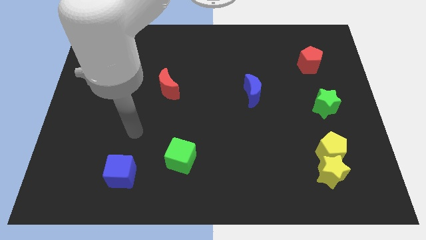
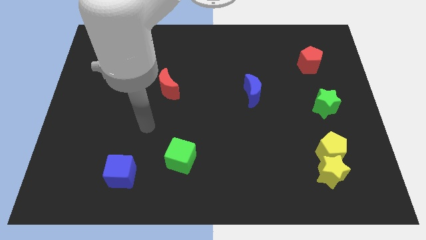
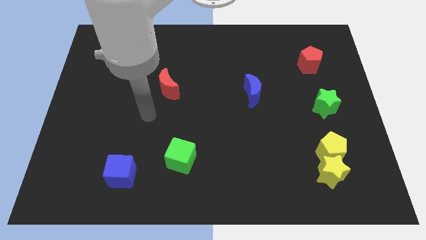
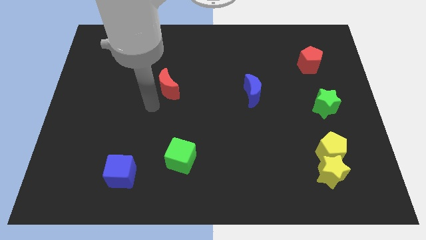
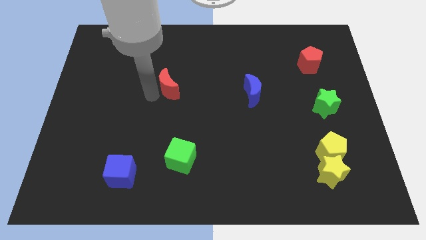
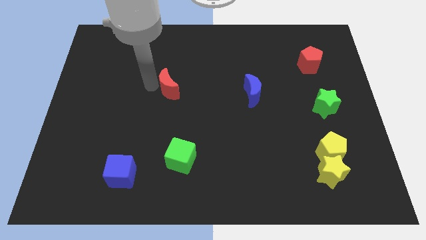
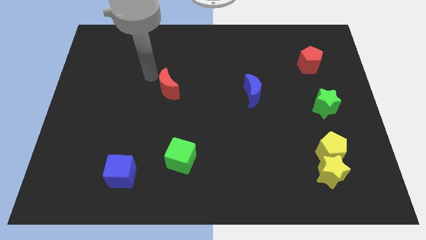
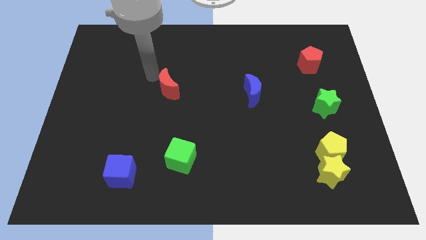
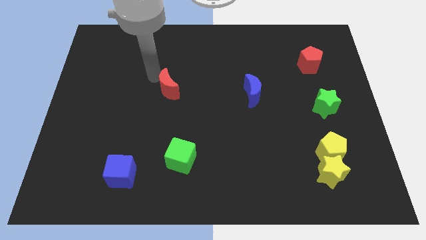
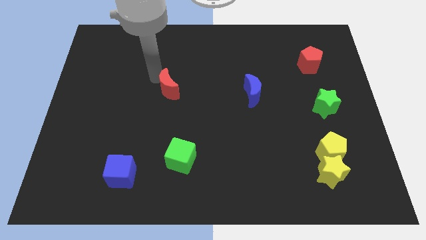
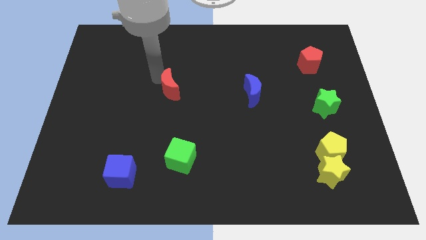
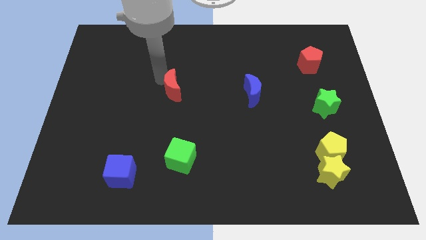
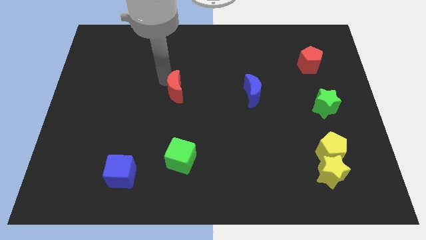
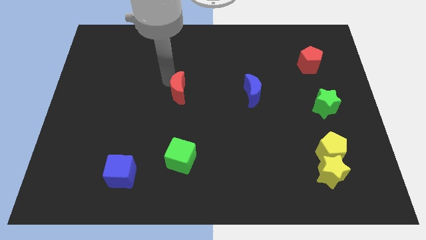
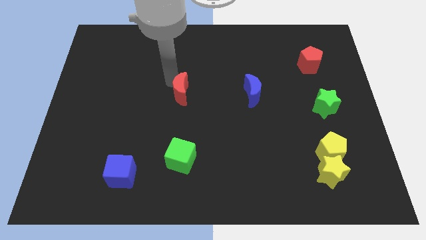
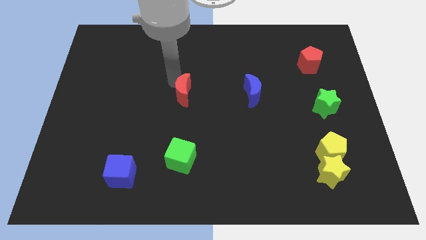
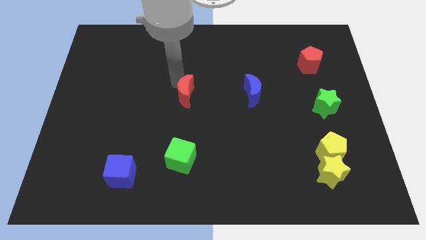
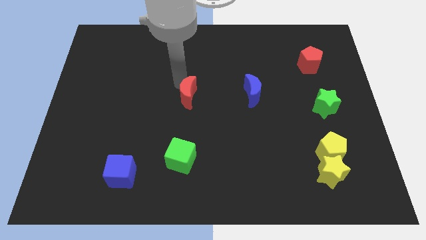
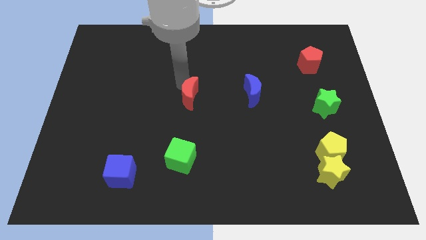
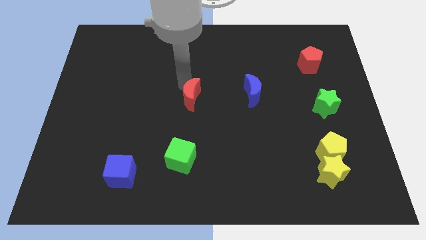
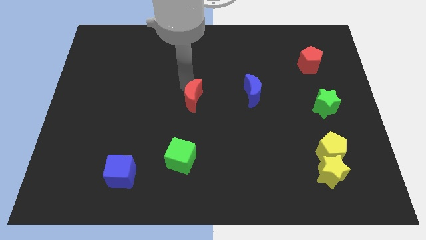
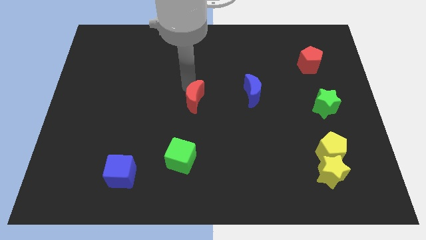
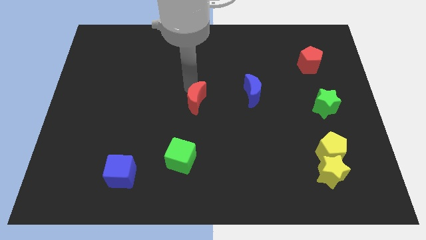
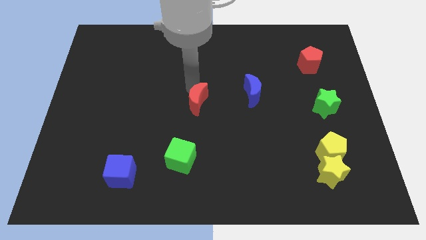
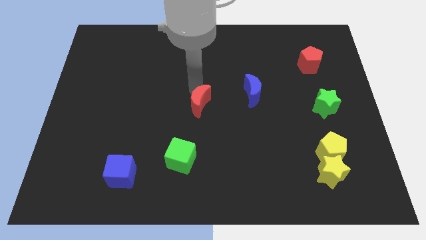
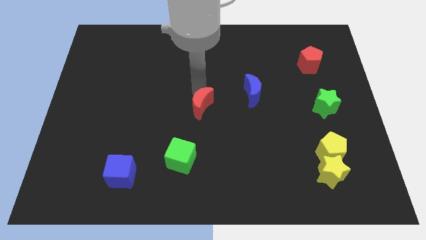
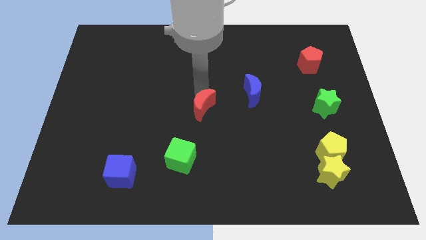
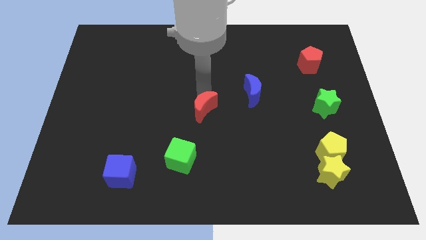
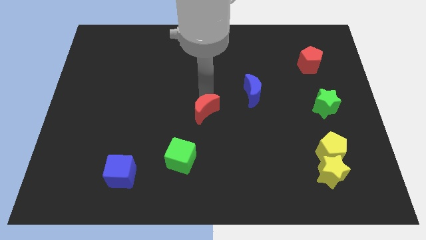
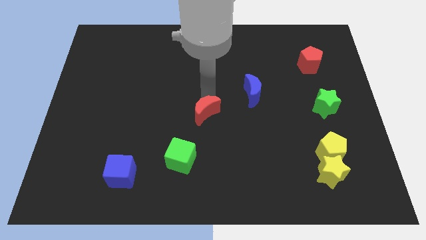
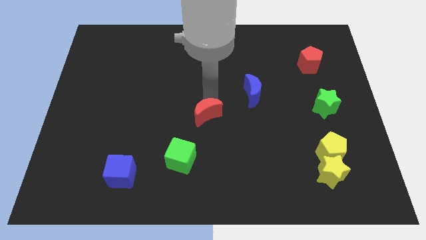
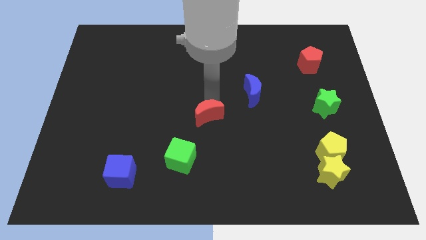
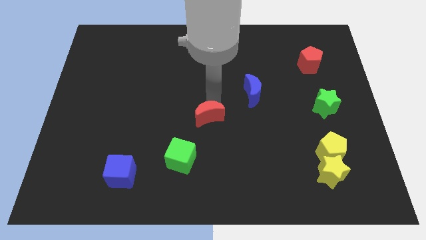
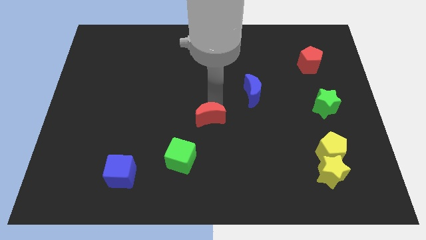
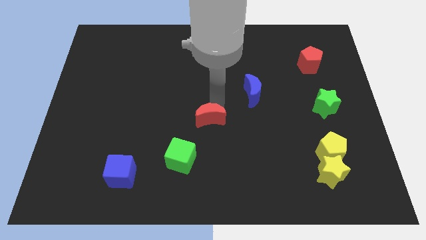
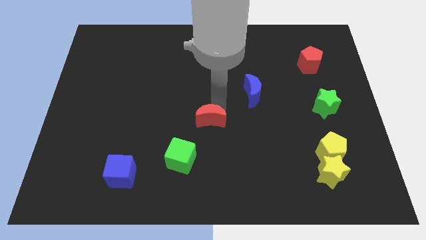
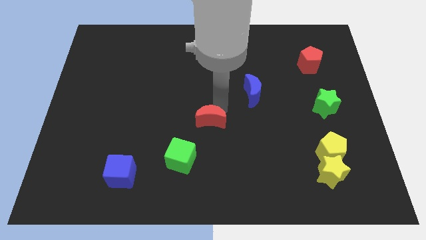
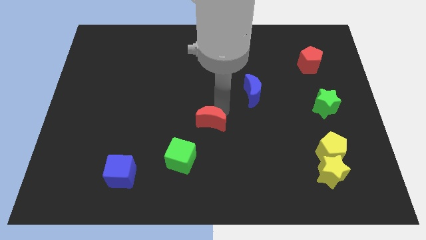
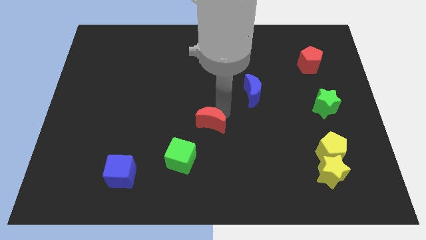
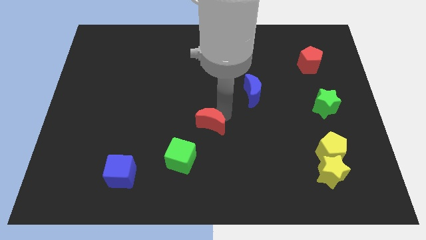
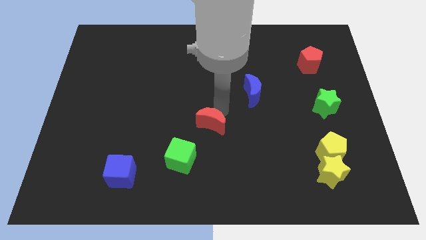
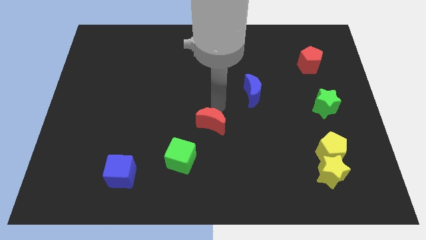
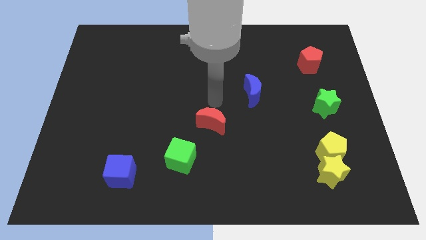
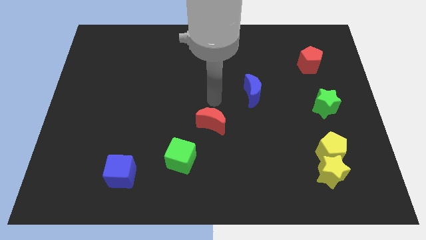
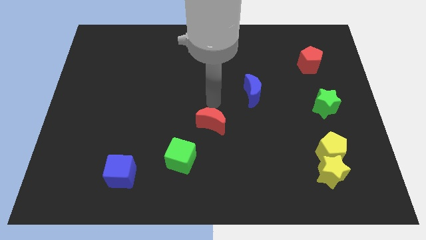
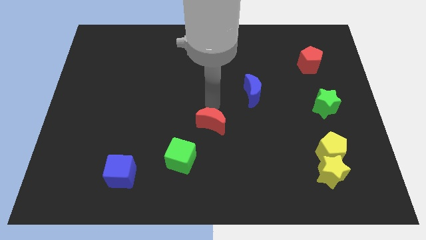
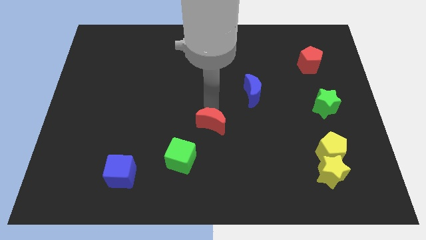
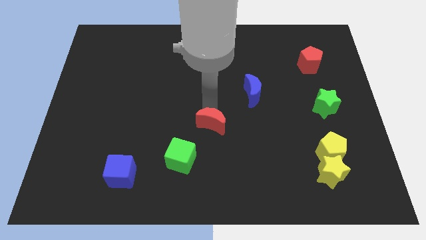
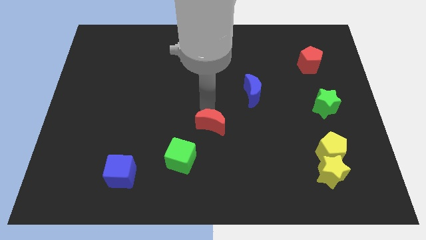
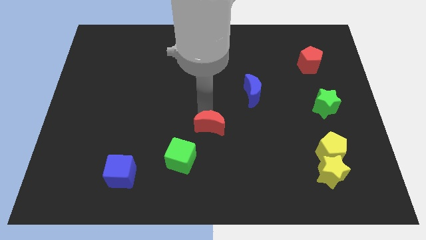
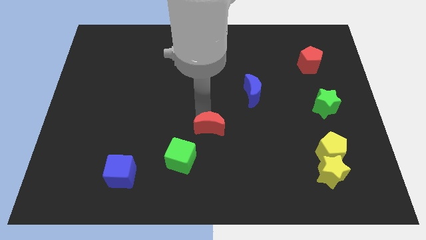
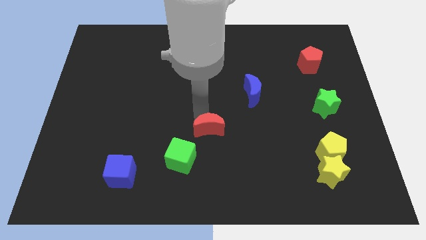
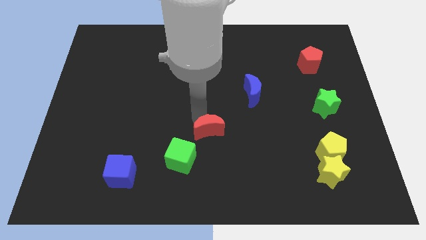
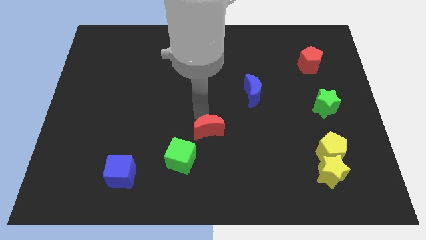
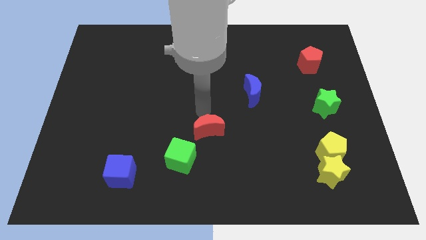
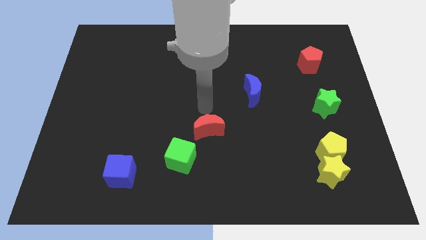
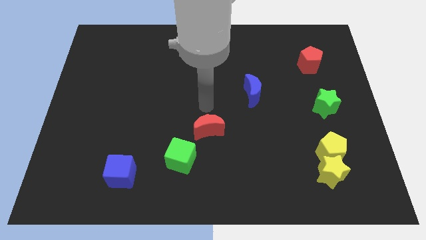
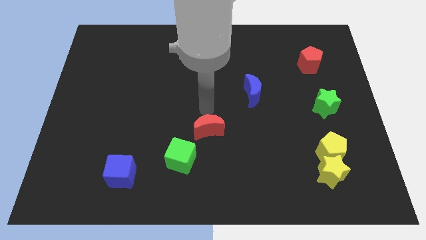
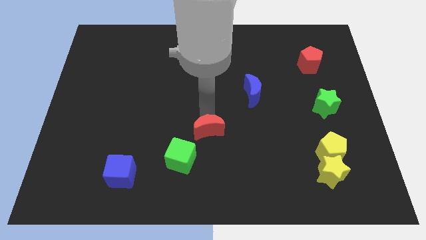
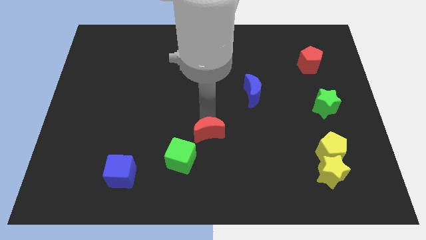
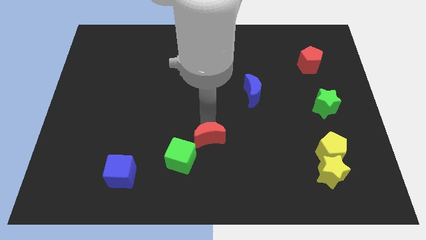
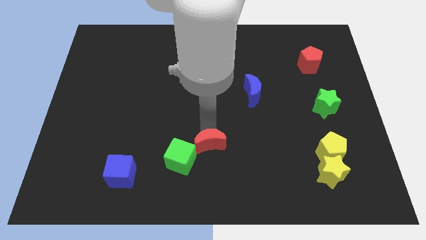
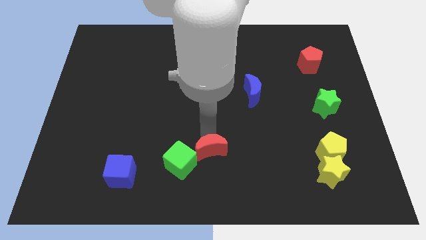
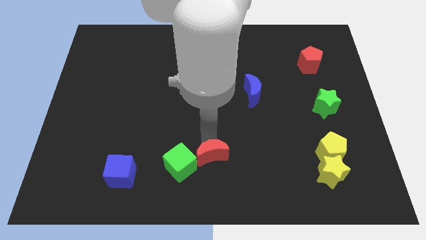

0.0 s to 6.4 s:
slide the red moon to the bottom side
